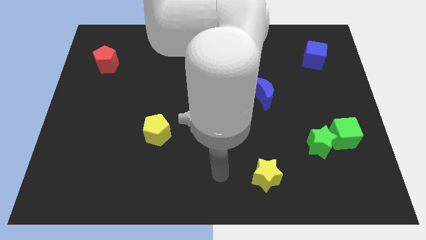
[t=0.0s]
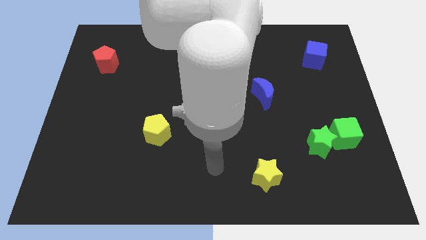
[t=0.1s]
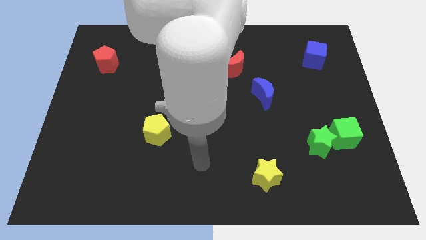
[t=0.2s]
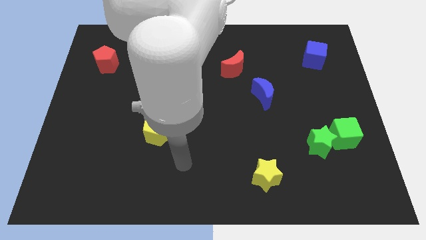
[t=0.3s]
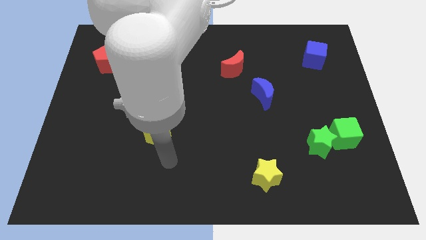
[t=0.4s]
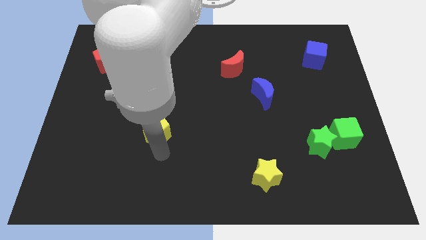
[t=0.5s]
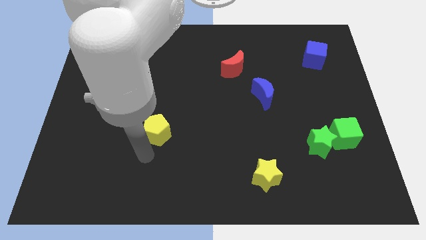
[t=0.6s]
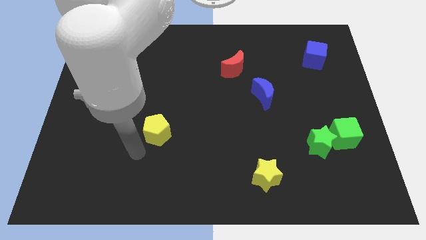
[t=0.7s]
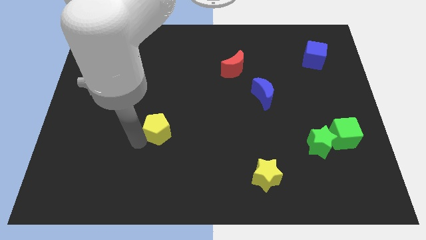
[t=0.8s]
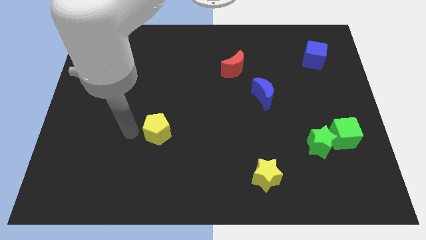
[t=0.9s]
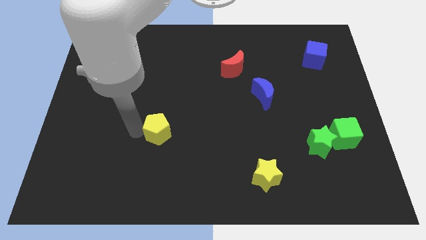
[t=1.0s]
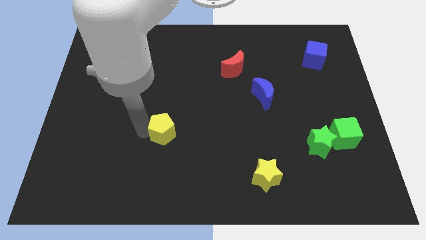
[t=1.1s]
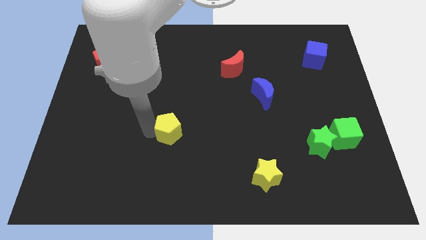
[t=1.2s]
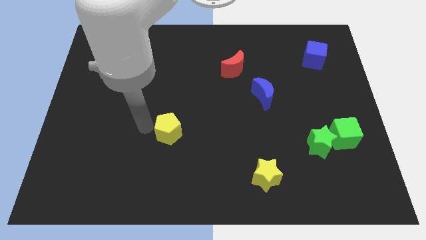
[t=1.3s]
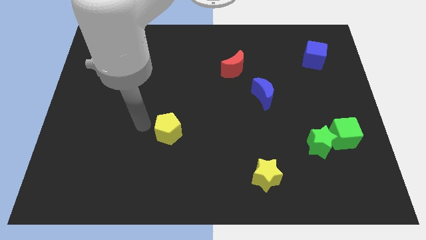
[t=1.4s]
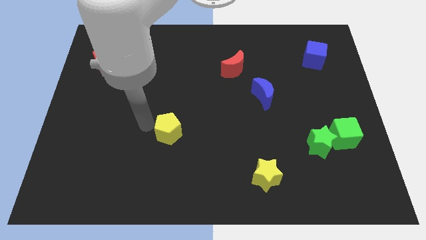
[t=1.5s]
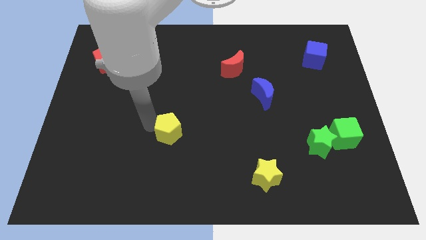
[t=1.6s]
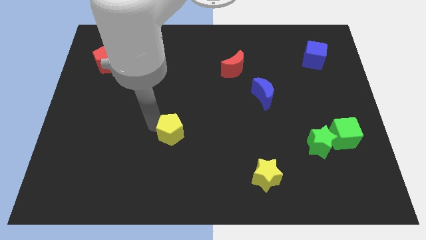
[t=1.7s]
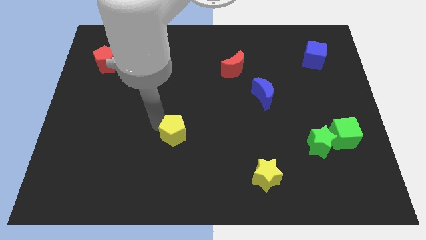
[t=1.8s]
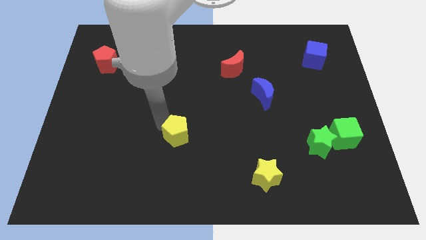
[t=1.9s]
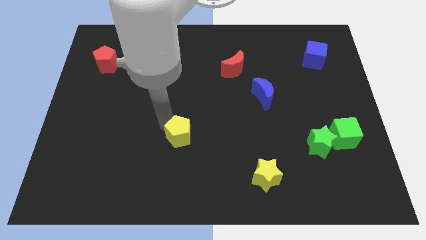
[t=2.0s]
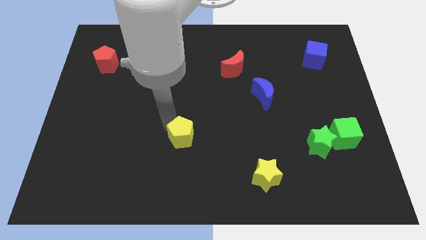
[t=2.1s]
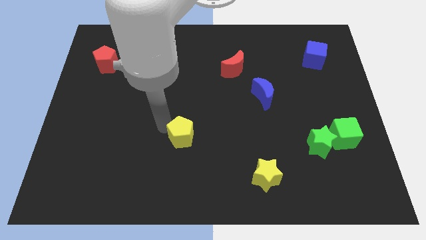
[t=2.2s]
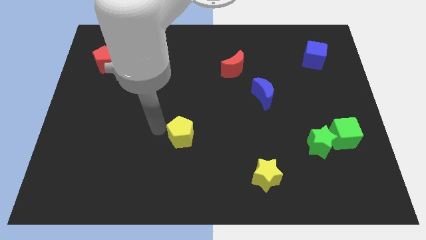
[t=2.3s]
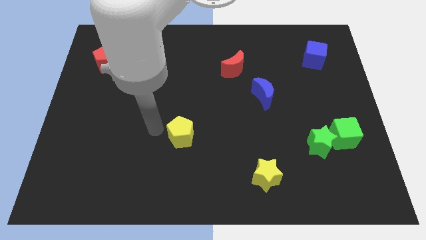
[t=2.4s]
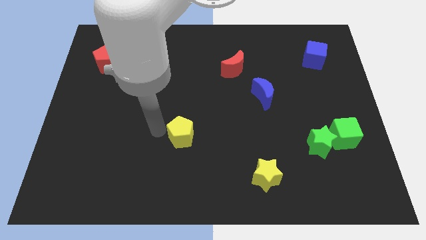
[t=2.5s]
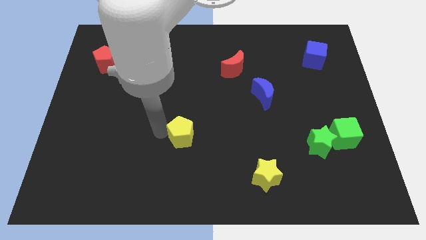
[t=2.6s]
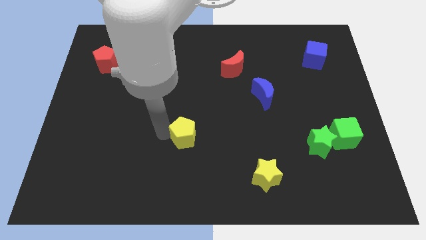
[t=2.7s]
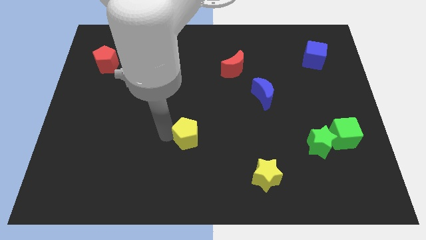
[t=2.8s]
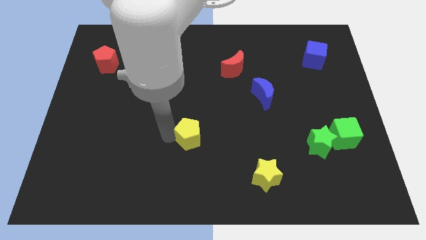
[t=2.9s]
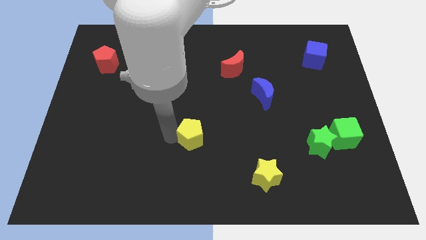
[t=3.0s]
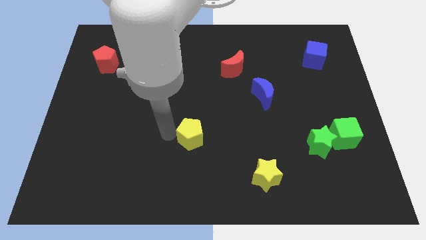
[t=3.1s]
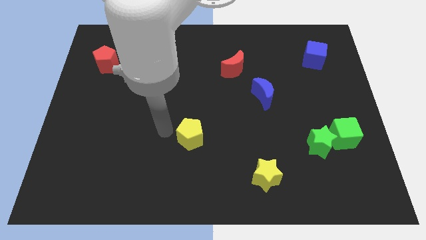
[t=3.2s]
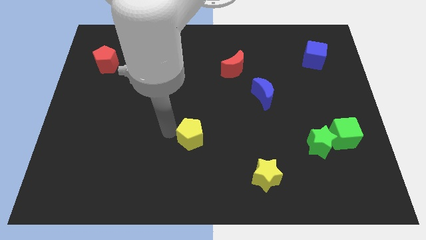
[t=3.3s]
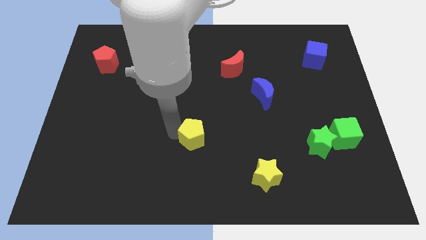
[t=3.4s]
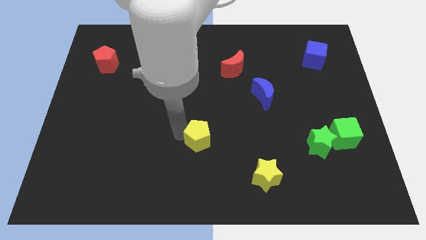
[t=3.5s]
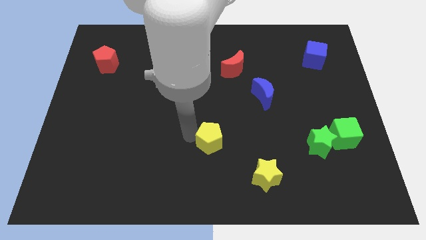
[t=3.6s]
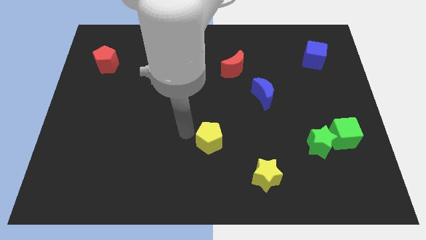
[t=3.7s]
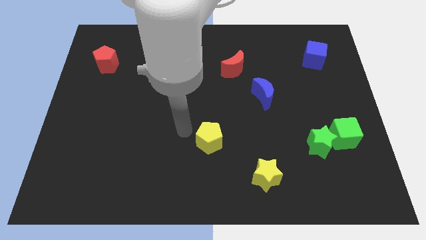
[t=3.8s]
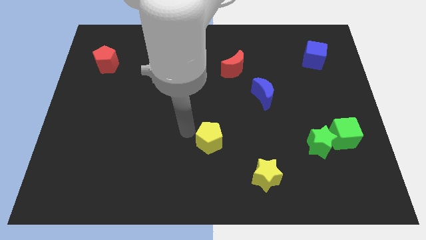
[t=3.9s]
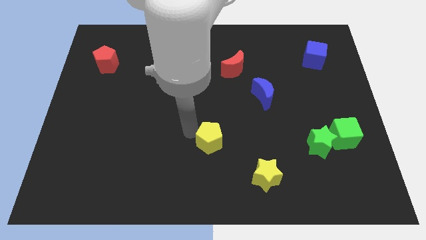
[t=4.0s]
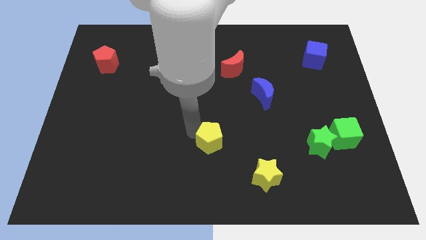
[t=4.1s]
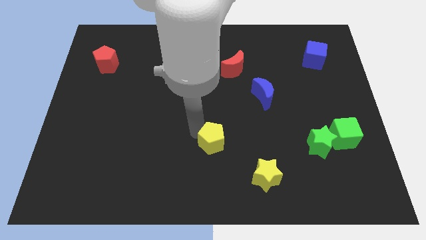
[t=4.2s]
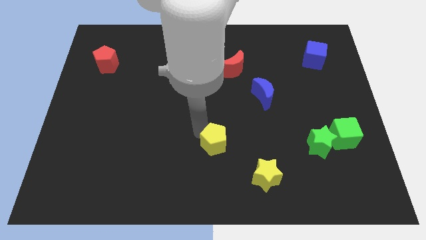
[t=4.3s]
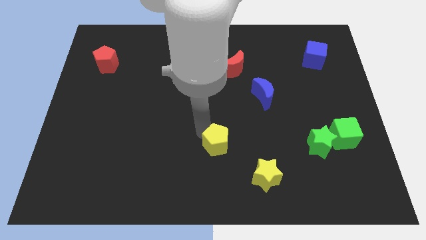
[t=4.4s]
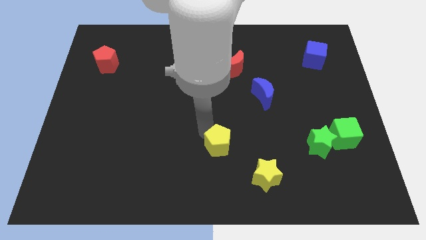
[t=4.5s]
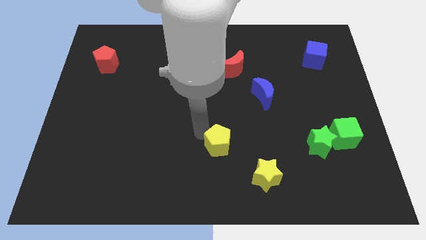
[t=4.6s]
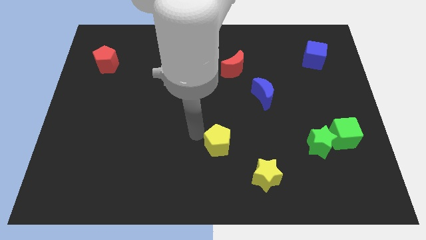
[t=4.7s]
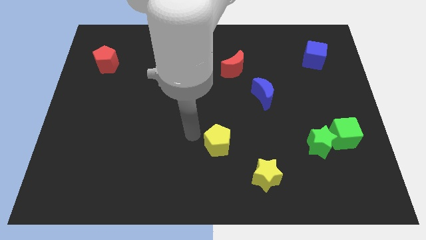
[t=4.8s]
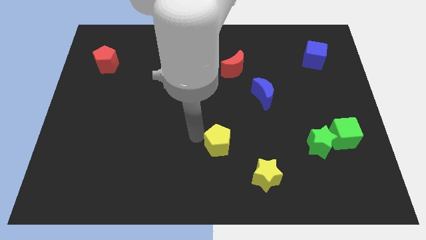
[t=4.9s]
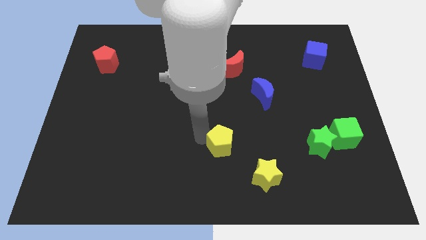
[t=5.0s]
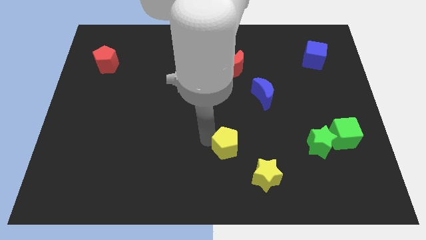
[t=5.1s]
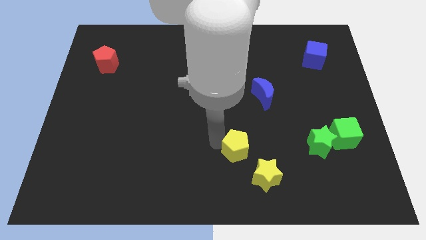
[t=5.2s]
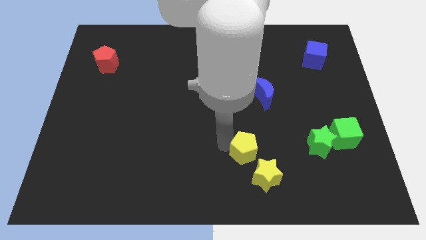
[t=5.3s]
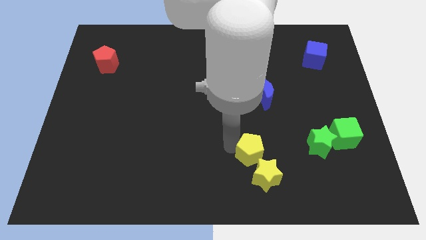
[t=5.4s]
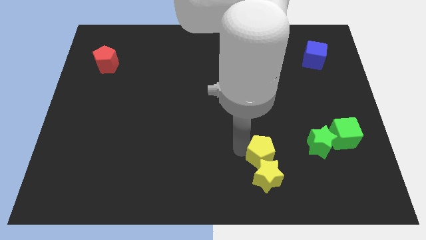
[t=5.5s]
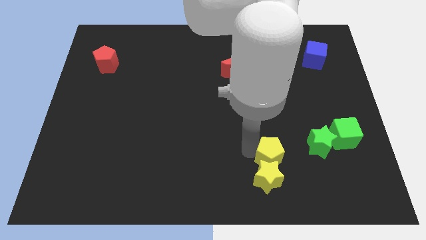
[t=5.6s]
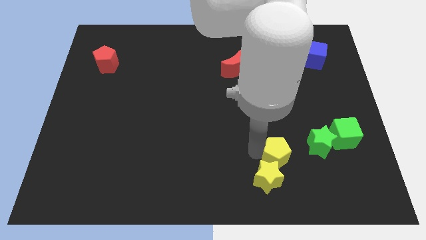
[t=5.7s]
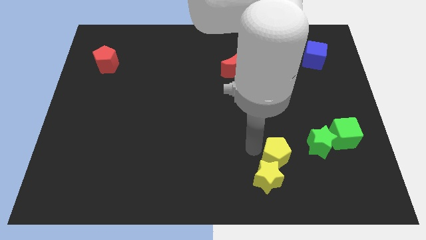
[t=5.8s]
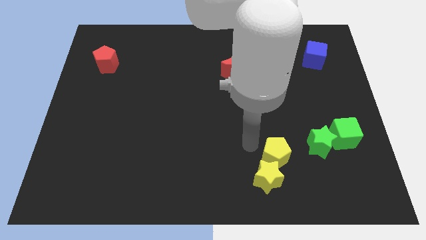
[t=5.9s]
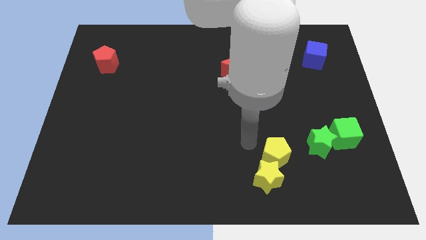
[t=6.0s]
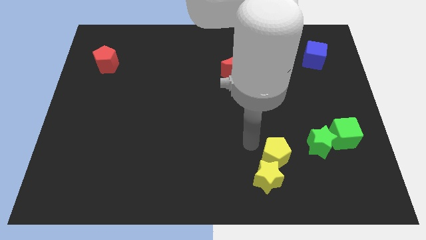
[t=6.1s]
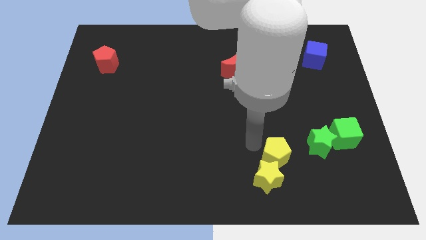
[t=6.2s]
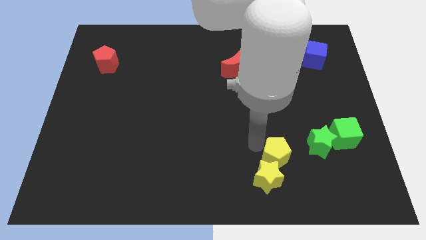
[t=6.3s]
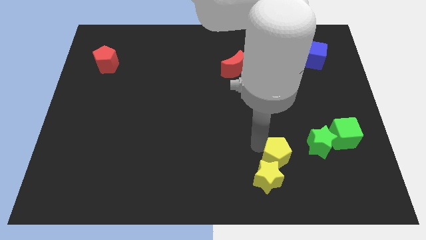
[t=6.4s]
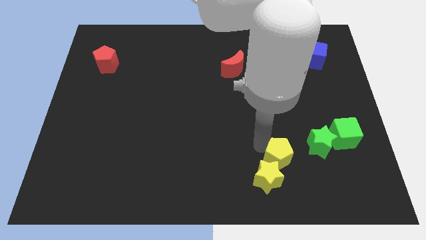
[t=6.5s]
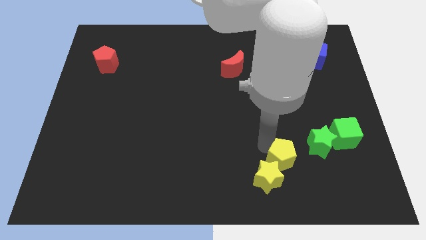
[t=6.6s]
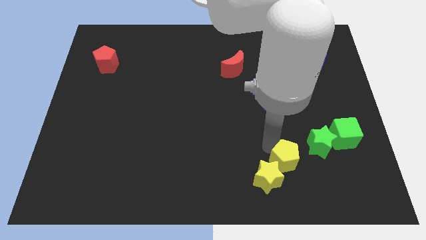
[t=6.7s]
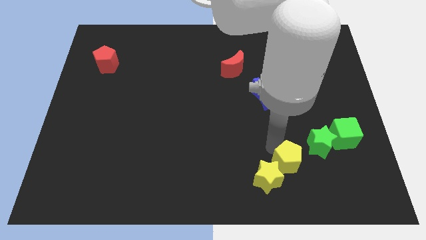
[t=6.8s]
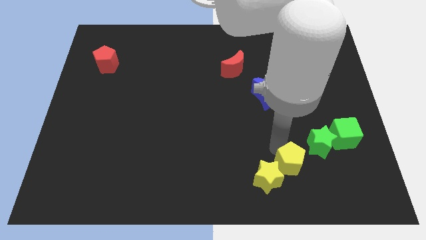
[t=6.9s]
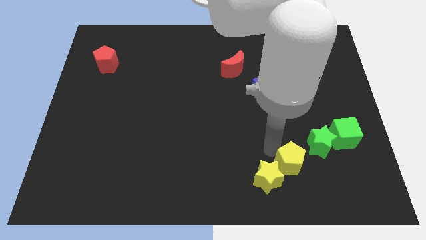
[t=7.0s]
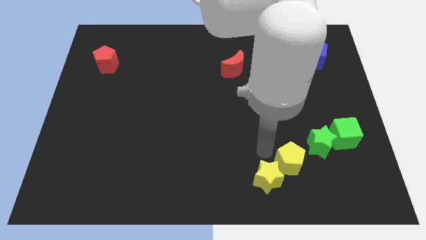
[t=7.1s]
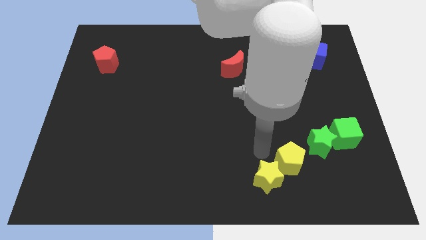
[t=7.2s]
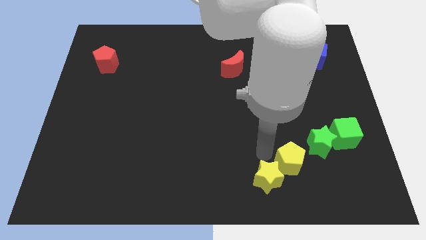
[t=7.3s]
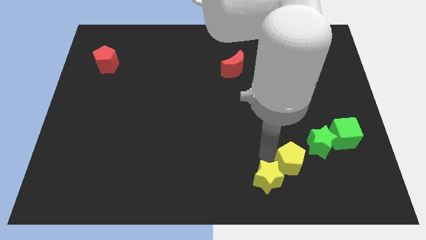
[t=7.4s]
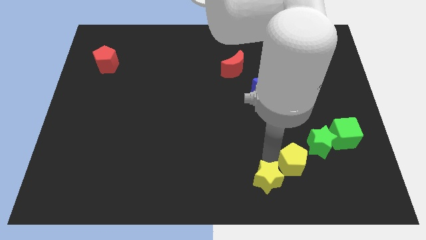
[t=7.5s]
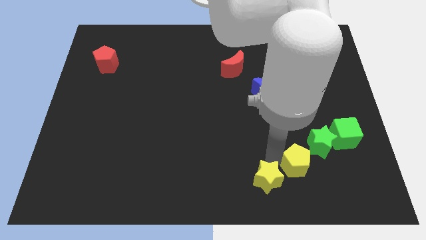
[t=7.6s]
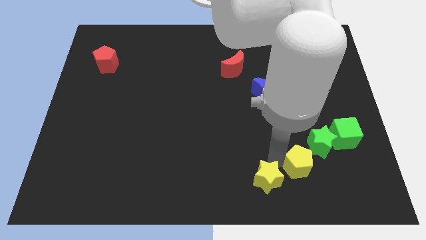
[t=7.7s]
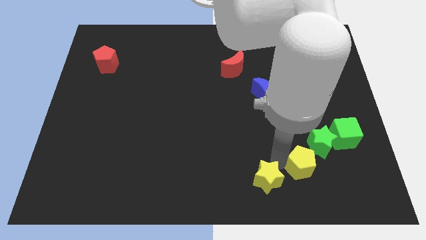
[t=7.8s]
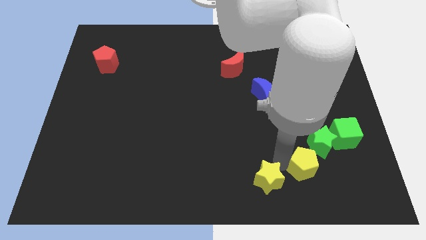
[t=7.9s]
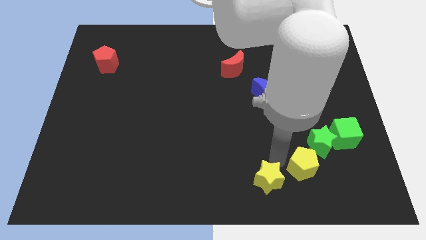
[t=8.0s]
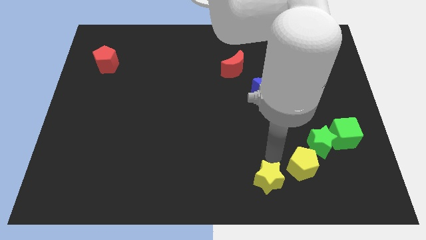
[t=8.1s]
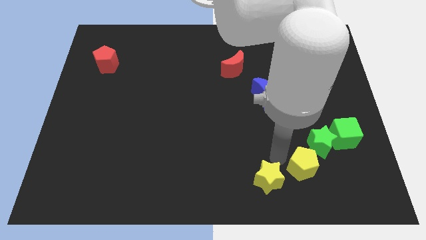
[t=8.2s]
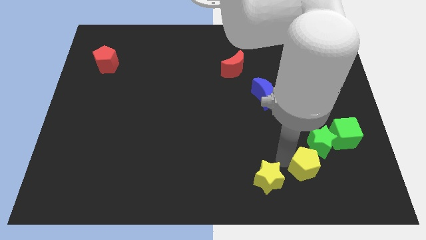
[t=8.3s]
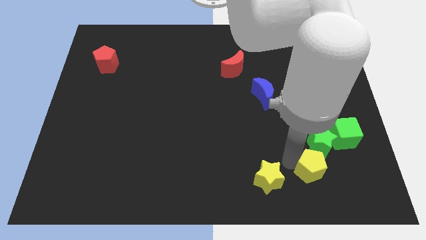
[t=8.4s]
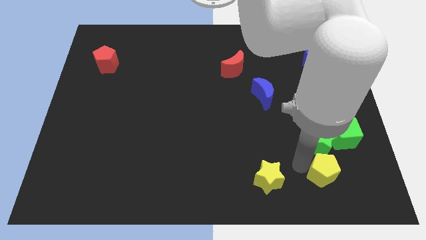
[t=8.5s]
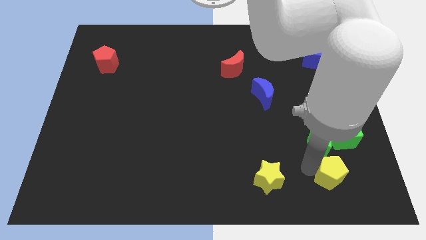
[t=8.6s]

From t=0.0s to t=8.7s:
push the yellow pentagon below the green cube
